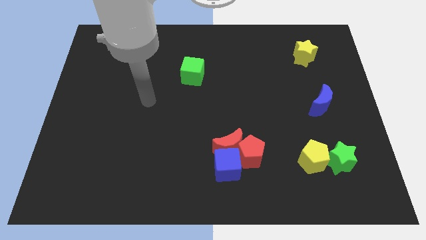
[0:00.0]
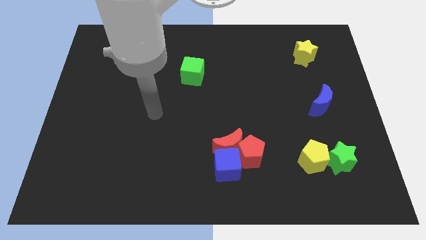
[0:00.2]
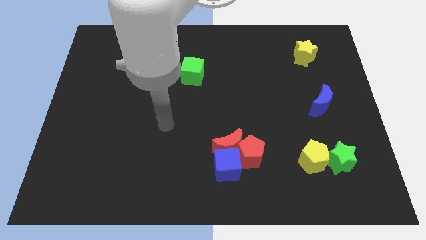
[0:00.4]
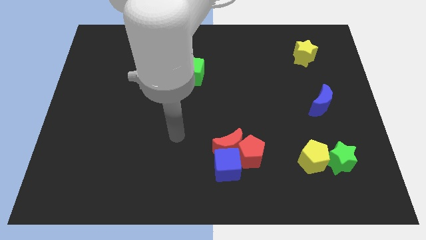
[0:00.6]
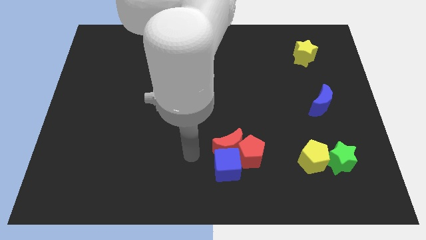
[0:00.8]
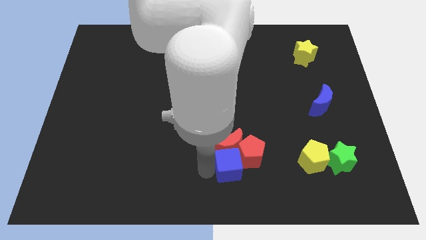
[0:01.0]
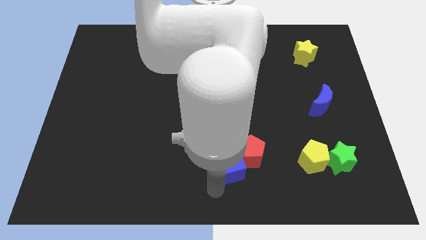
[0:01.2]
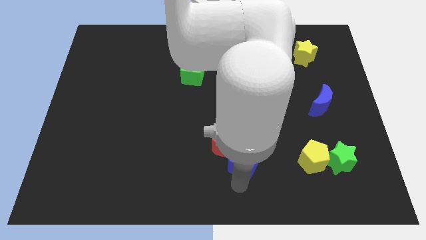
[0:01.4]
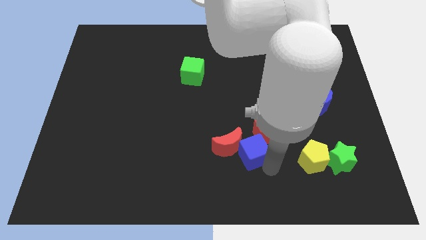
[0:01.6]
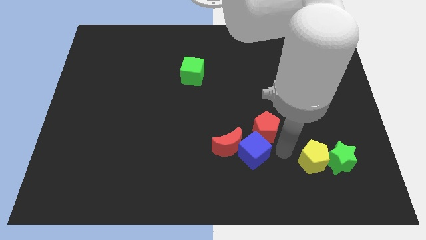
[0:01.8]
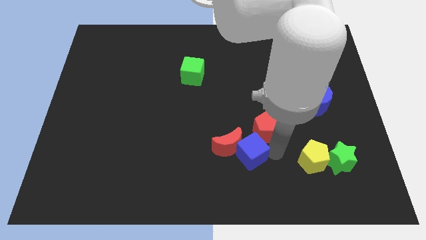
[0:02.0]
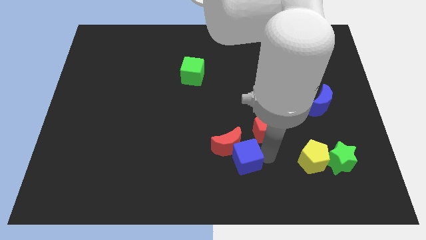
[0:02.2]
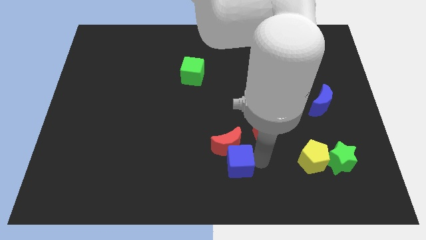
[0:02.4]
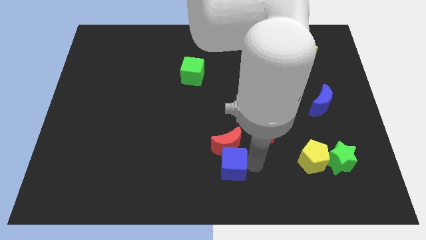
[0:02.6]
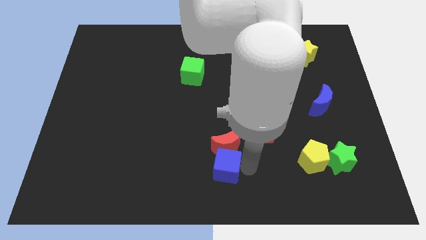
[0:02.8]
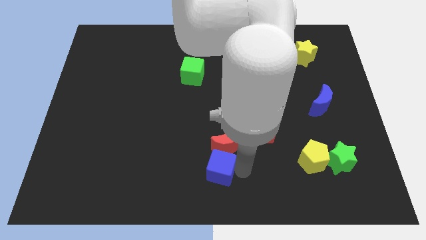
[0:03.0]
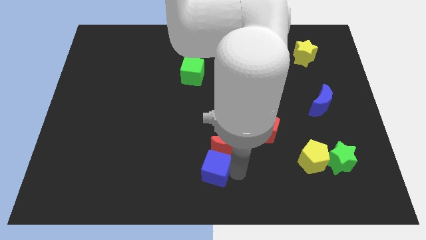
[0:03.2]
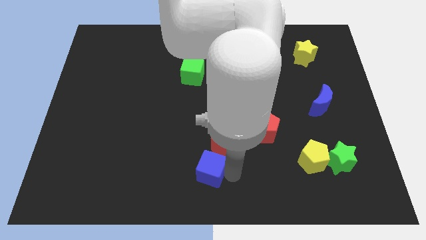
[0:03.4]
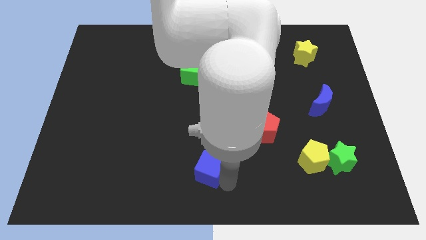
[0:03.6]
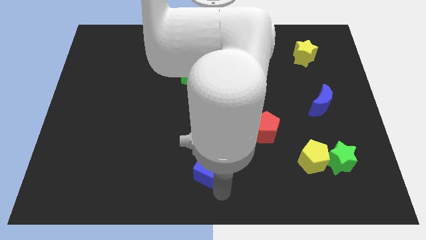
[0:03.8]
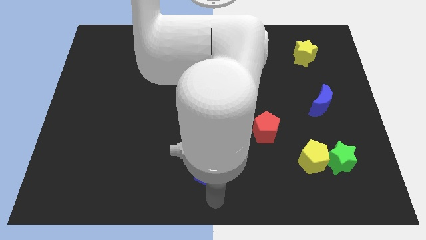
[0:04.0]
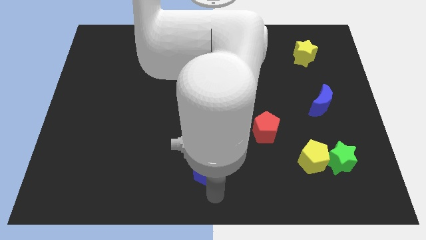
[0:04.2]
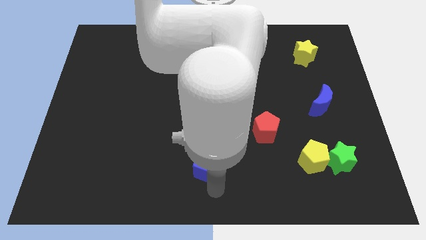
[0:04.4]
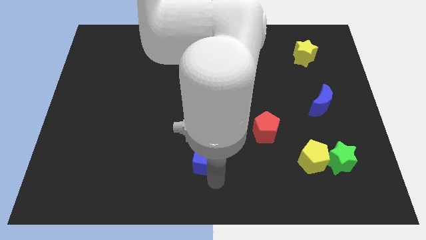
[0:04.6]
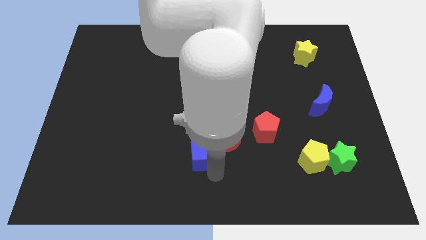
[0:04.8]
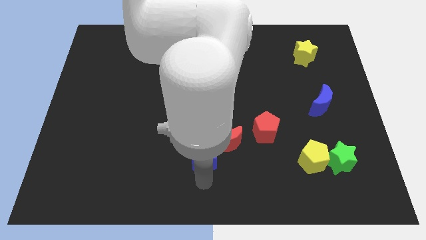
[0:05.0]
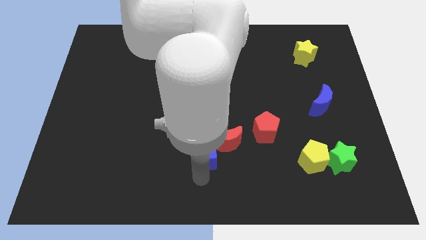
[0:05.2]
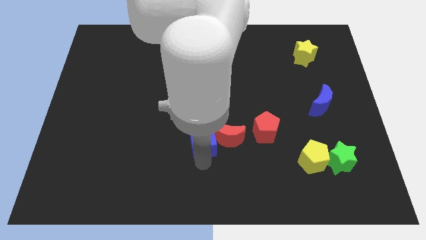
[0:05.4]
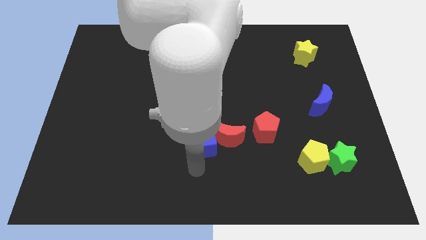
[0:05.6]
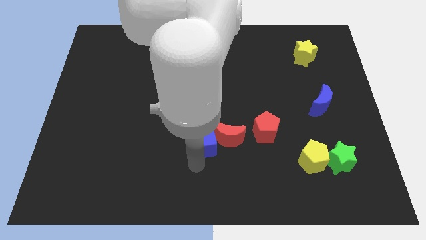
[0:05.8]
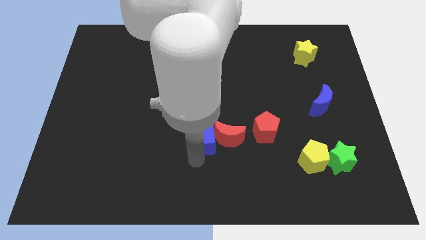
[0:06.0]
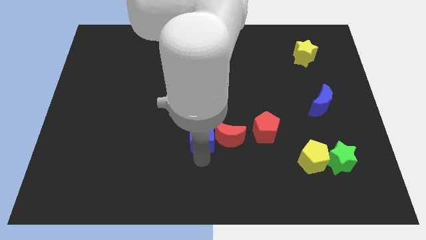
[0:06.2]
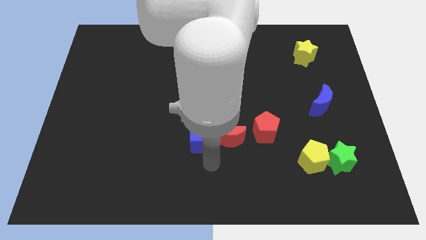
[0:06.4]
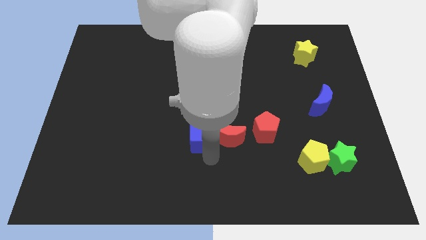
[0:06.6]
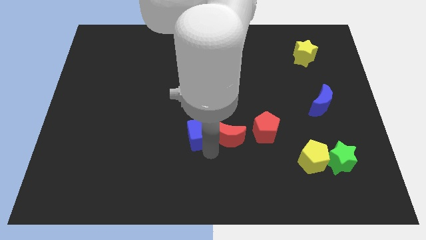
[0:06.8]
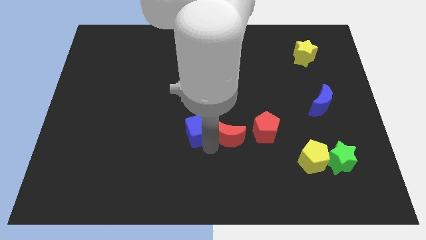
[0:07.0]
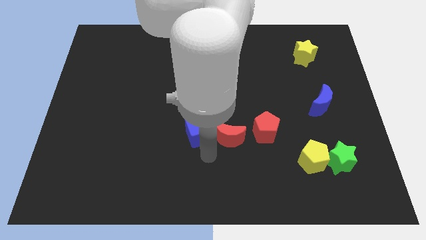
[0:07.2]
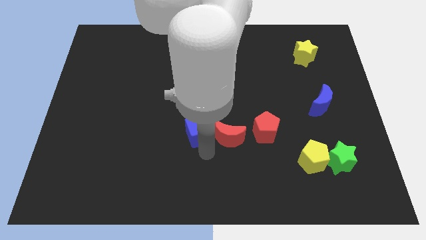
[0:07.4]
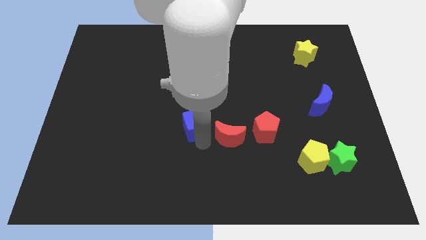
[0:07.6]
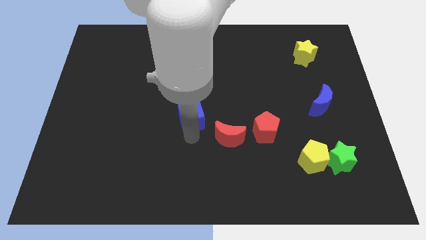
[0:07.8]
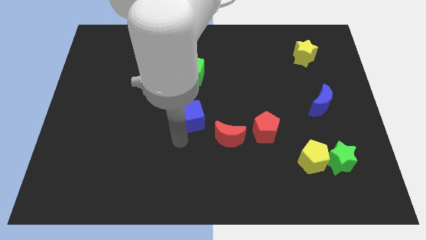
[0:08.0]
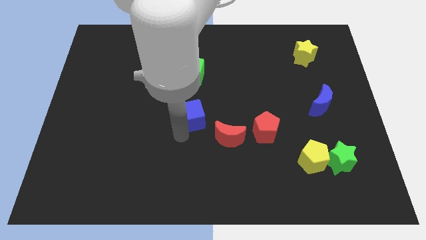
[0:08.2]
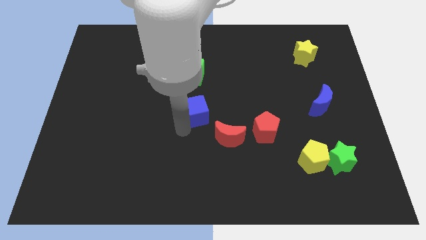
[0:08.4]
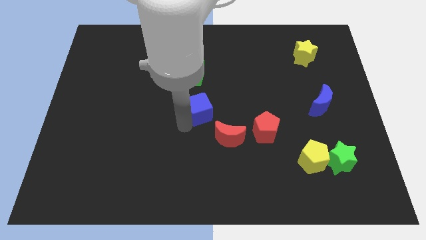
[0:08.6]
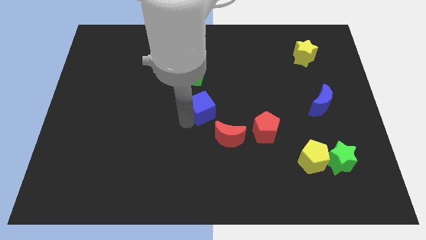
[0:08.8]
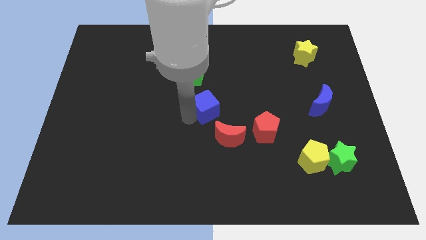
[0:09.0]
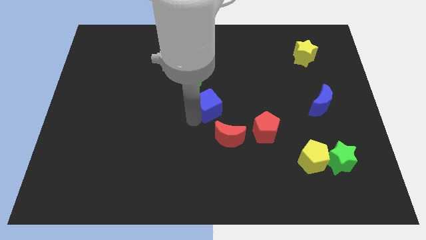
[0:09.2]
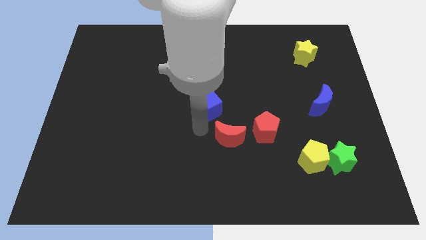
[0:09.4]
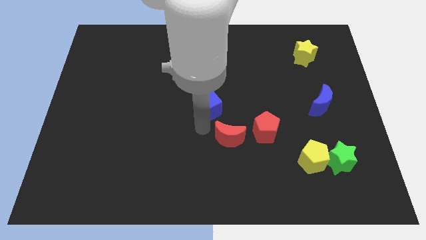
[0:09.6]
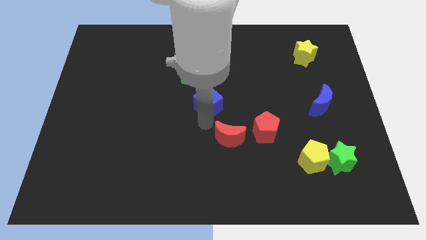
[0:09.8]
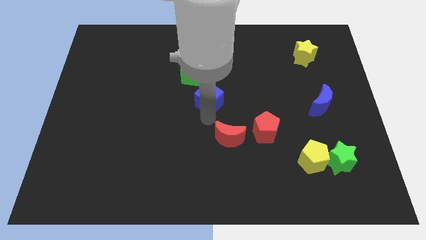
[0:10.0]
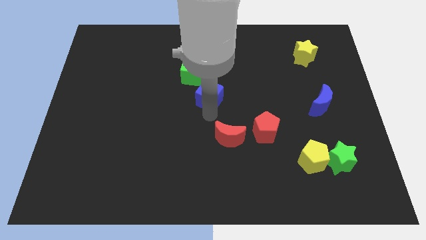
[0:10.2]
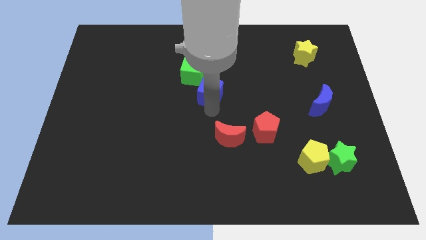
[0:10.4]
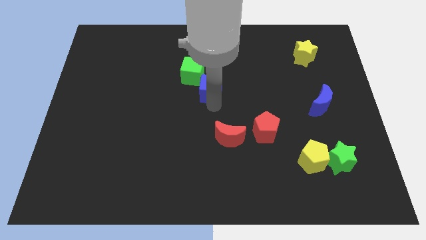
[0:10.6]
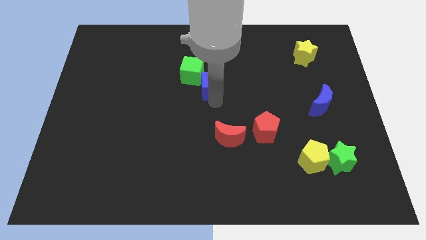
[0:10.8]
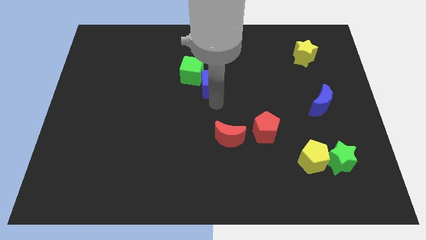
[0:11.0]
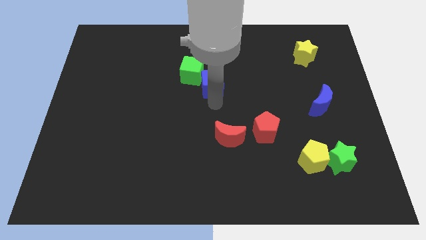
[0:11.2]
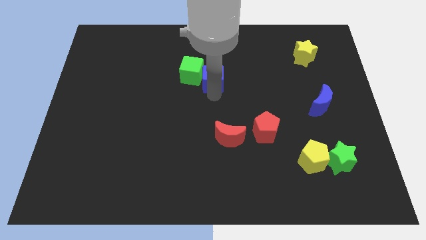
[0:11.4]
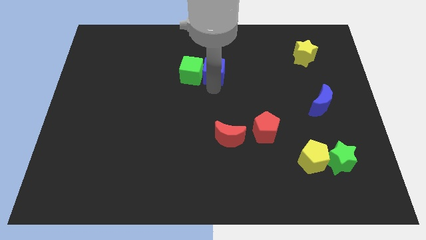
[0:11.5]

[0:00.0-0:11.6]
move the blue cube diagonally up and to the right of the green cube

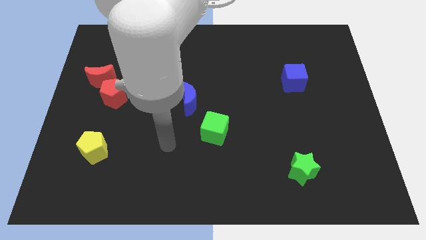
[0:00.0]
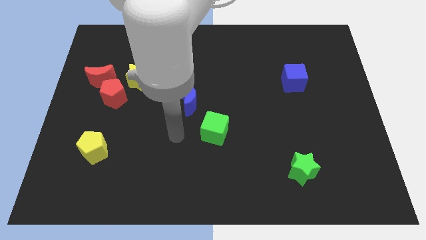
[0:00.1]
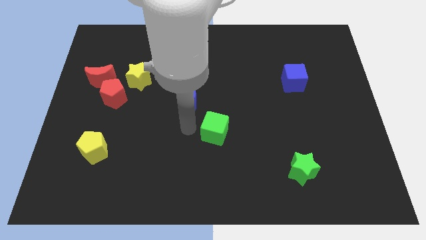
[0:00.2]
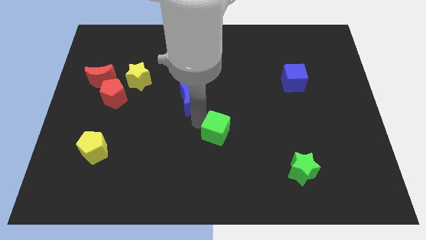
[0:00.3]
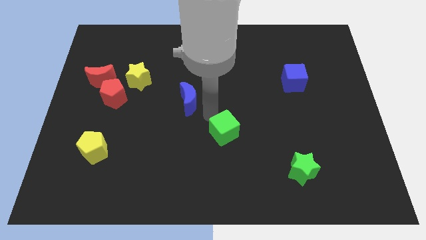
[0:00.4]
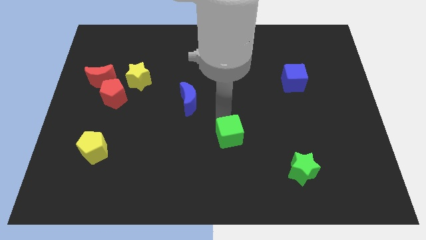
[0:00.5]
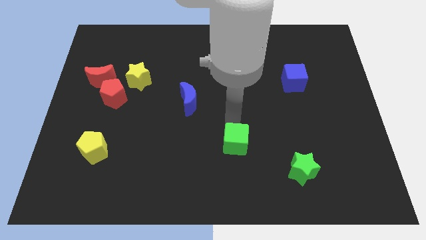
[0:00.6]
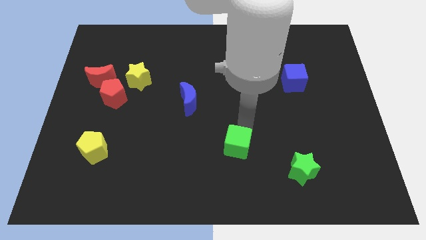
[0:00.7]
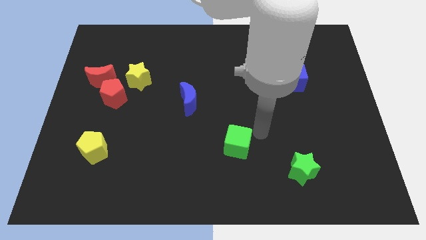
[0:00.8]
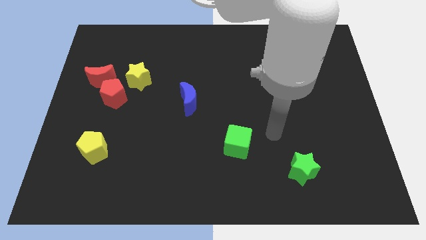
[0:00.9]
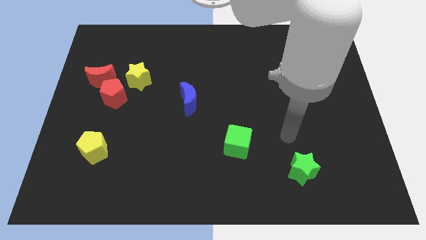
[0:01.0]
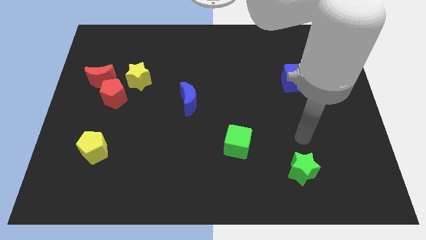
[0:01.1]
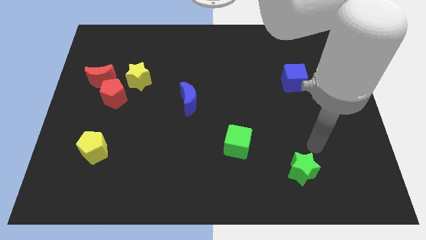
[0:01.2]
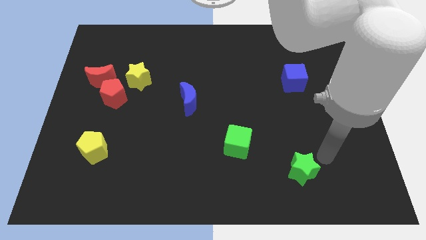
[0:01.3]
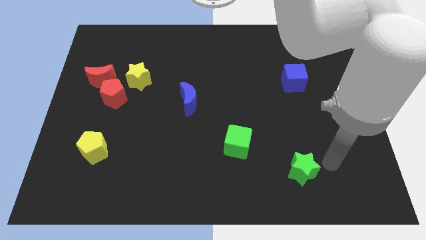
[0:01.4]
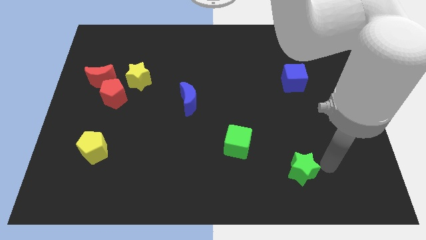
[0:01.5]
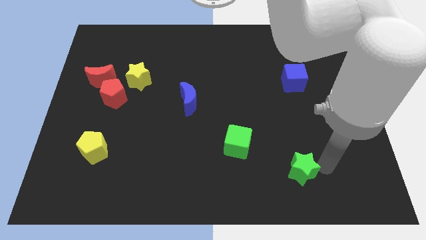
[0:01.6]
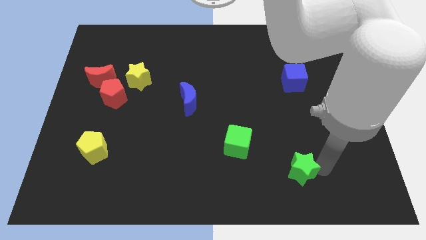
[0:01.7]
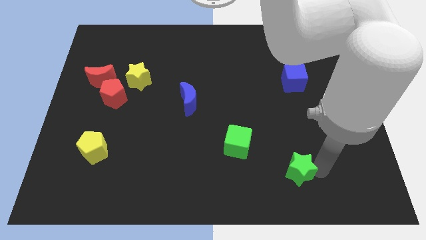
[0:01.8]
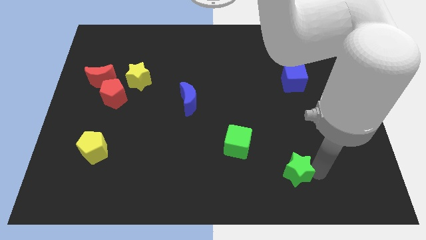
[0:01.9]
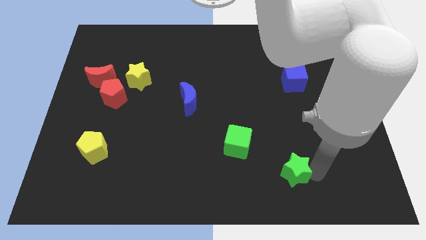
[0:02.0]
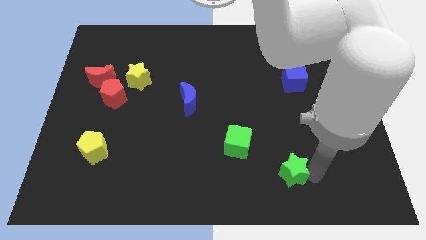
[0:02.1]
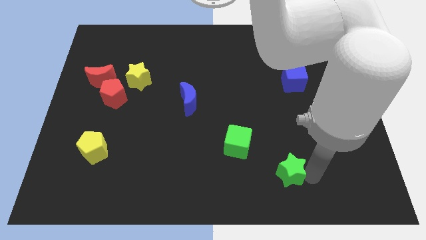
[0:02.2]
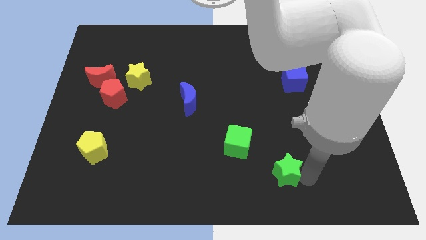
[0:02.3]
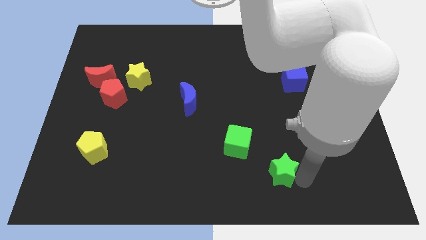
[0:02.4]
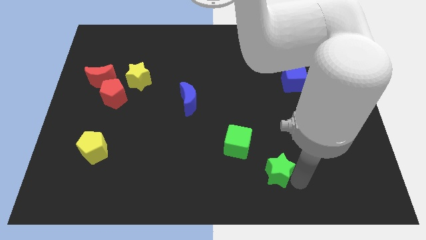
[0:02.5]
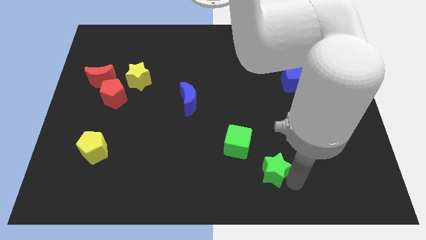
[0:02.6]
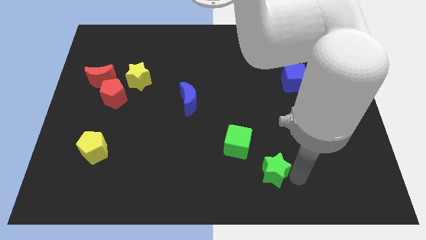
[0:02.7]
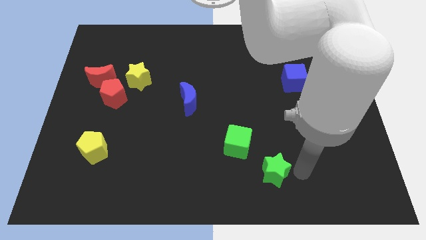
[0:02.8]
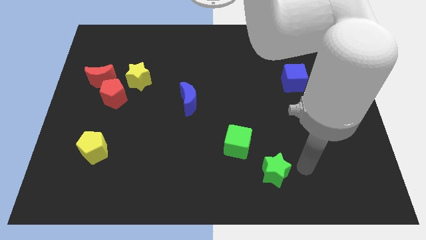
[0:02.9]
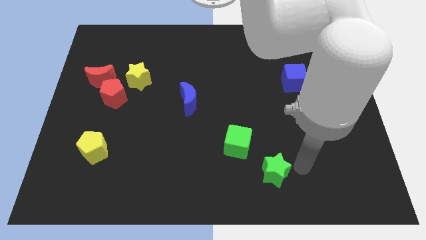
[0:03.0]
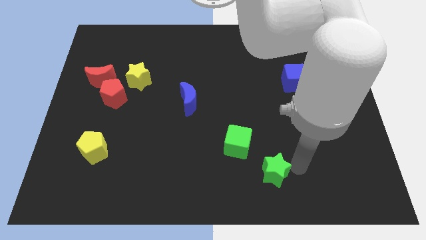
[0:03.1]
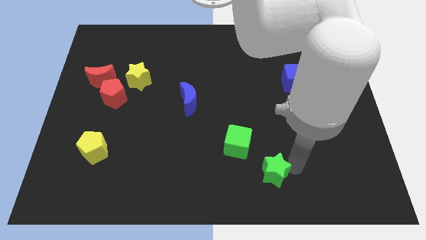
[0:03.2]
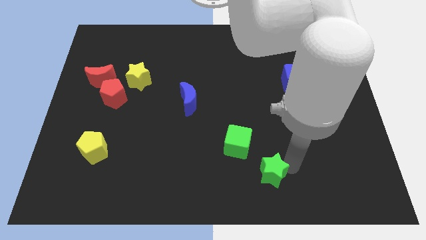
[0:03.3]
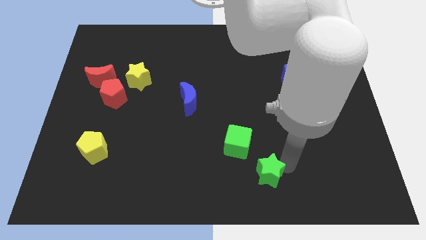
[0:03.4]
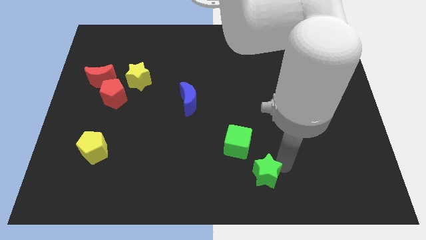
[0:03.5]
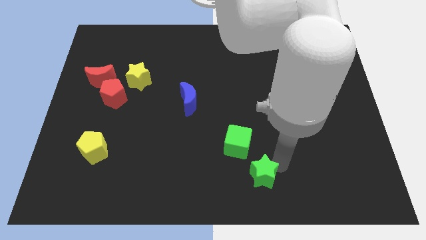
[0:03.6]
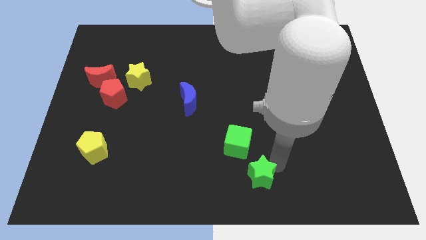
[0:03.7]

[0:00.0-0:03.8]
put the green star to the bottom of the green cube
